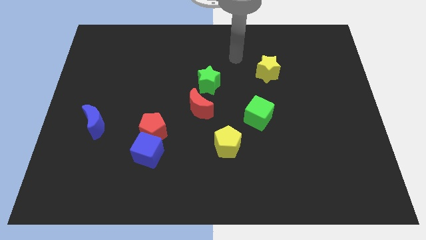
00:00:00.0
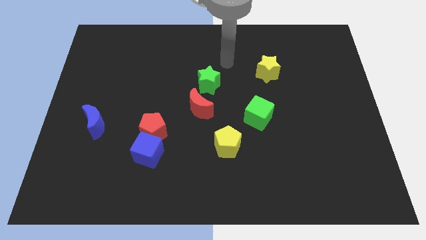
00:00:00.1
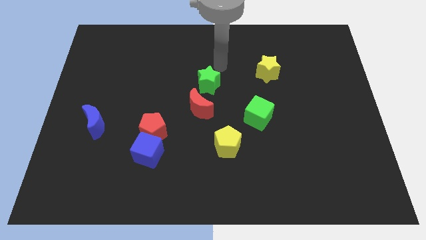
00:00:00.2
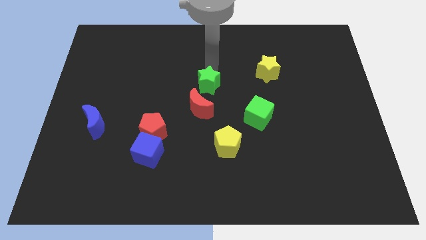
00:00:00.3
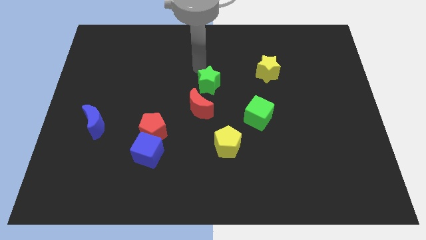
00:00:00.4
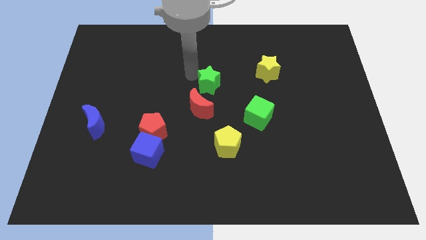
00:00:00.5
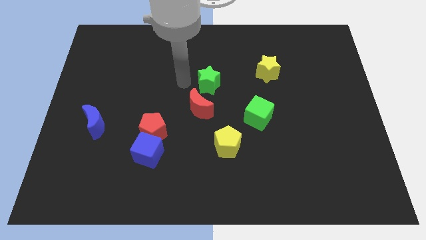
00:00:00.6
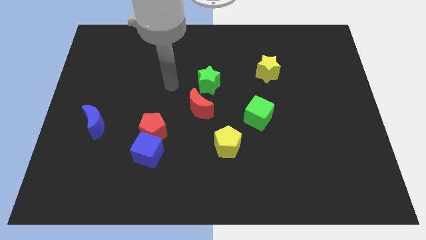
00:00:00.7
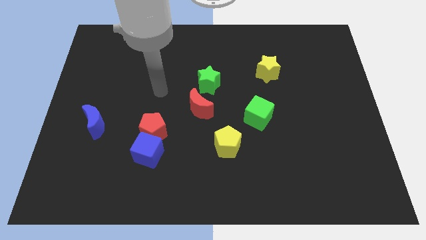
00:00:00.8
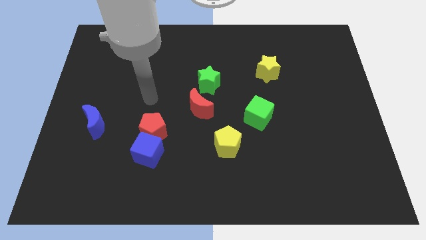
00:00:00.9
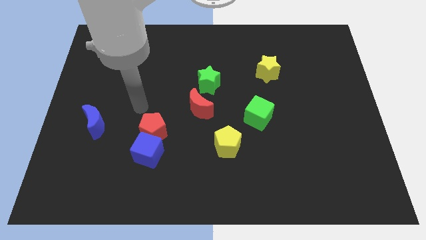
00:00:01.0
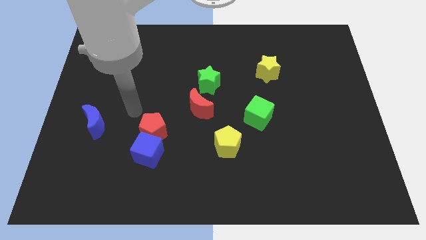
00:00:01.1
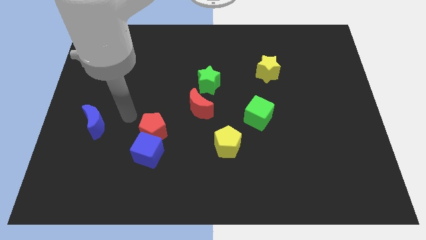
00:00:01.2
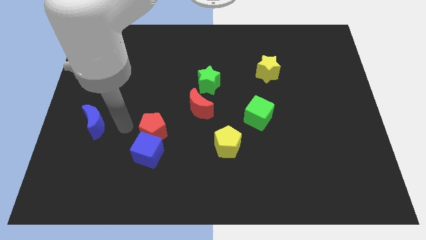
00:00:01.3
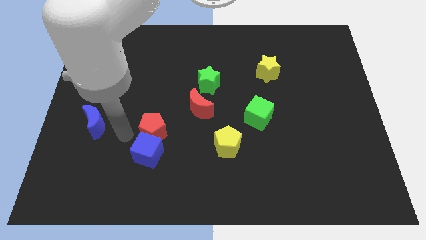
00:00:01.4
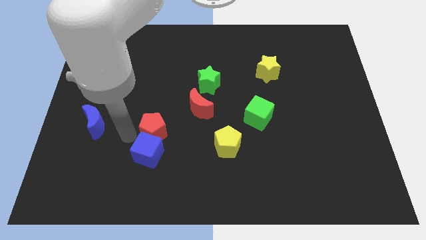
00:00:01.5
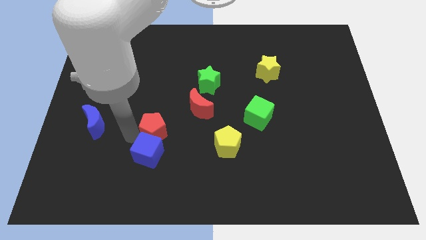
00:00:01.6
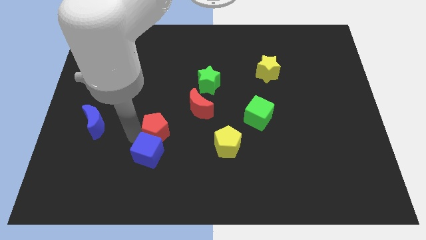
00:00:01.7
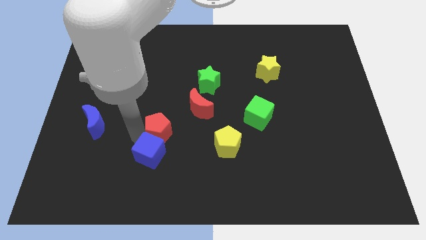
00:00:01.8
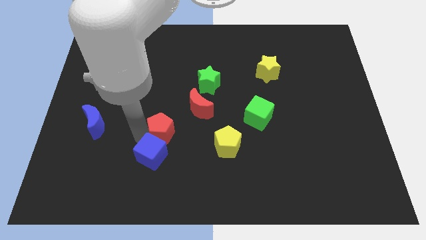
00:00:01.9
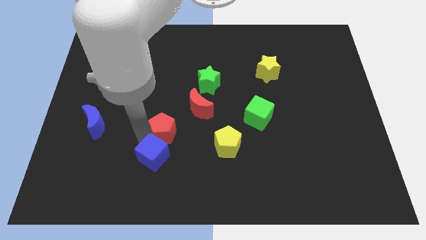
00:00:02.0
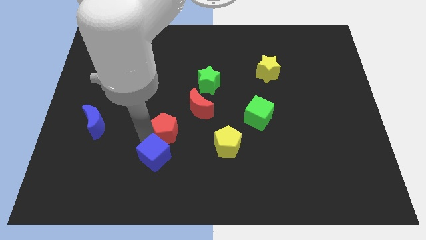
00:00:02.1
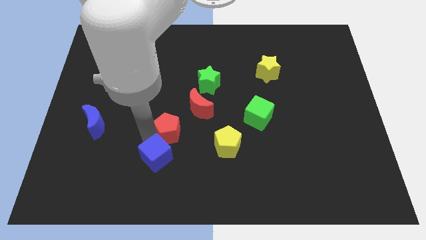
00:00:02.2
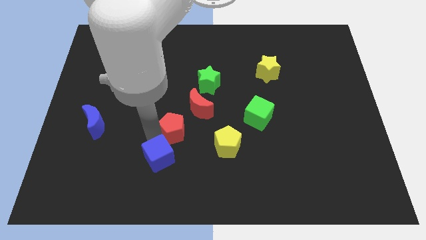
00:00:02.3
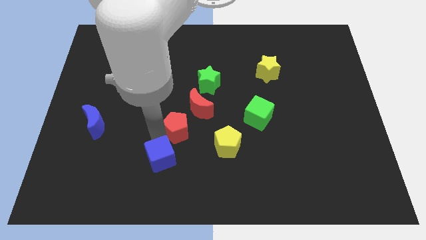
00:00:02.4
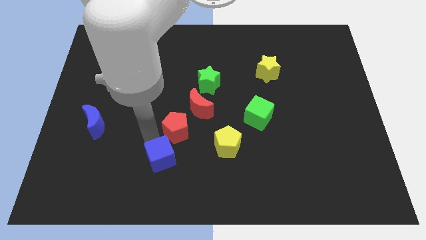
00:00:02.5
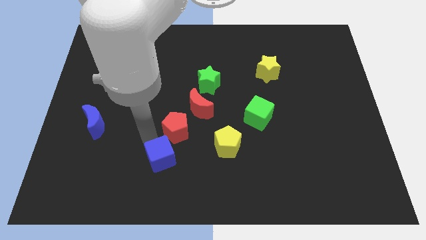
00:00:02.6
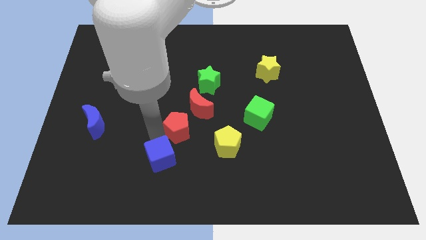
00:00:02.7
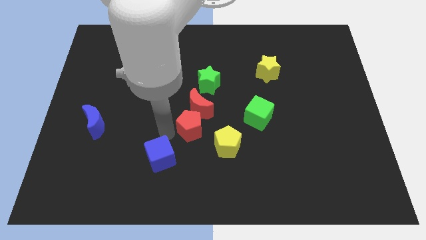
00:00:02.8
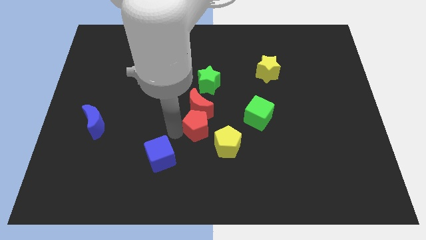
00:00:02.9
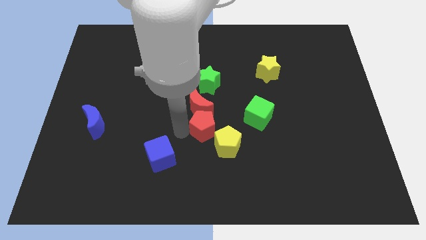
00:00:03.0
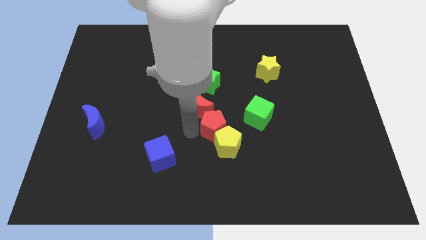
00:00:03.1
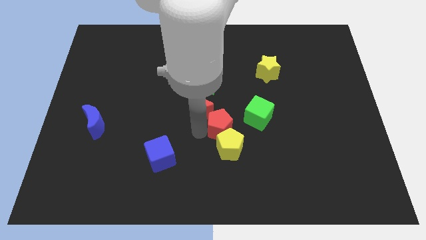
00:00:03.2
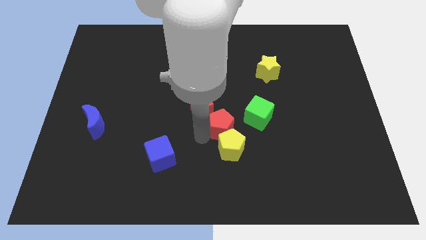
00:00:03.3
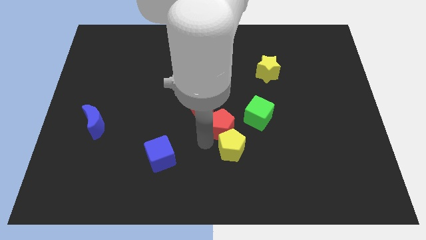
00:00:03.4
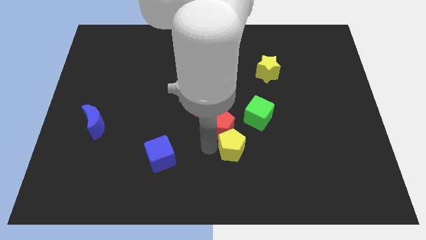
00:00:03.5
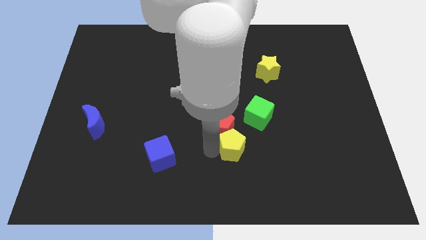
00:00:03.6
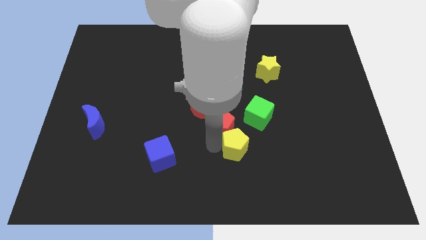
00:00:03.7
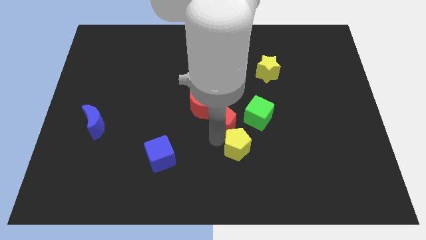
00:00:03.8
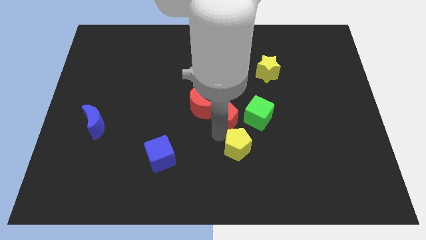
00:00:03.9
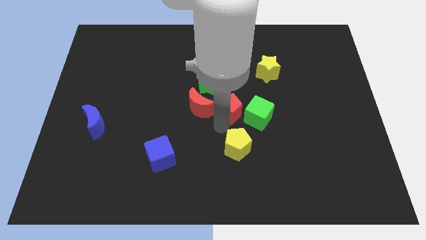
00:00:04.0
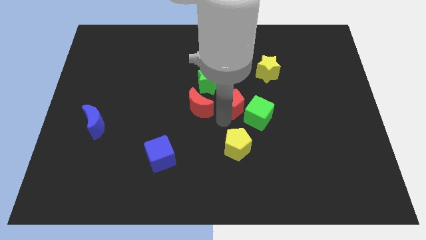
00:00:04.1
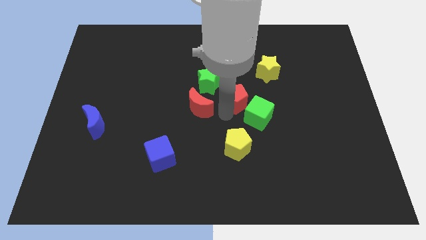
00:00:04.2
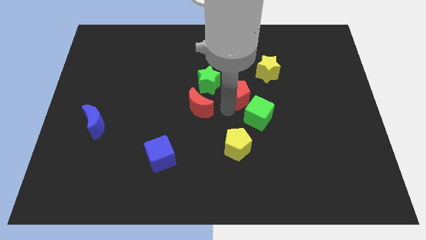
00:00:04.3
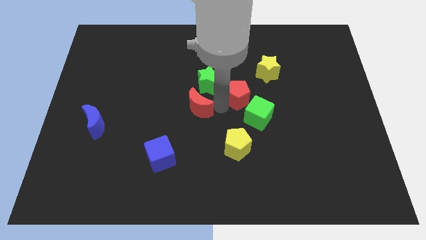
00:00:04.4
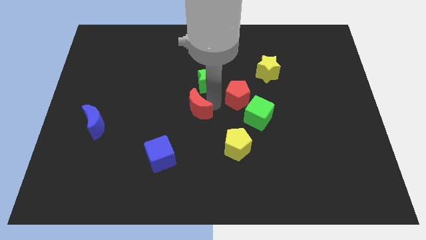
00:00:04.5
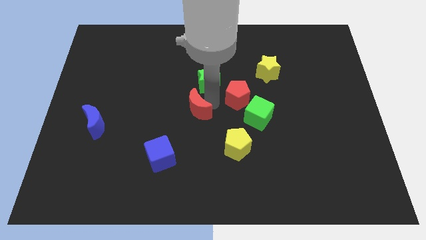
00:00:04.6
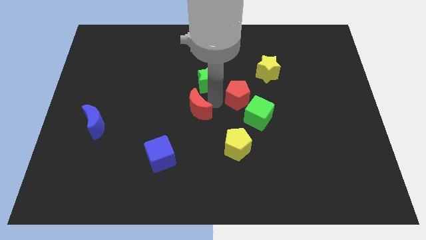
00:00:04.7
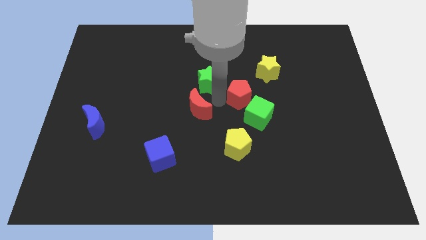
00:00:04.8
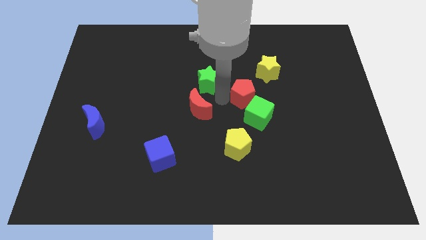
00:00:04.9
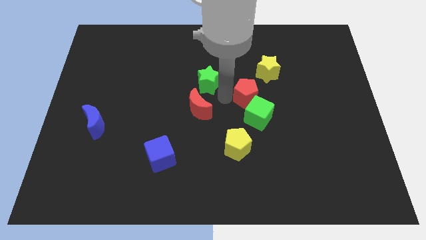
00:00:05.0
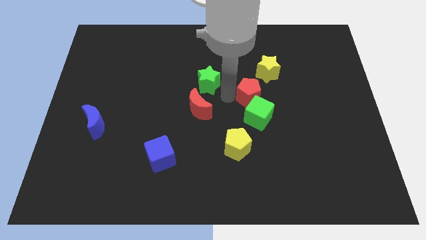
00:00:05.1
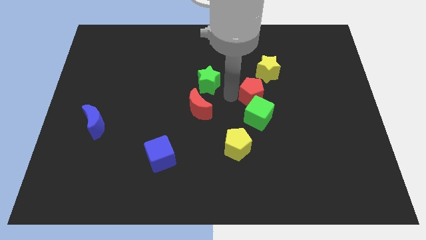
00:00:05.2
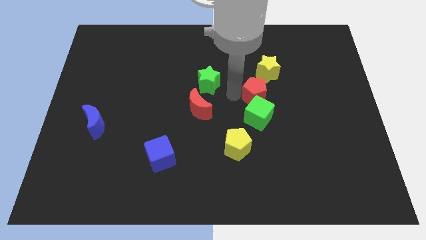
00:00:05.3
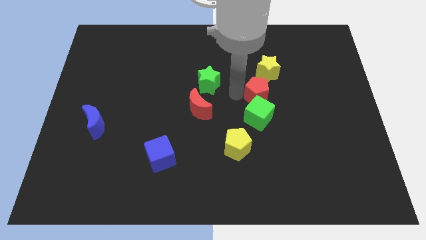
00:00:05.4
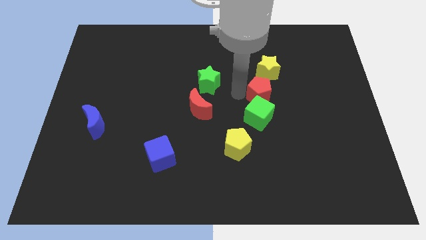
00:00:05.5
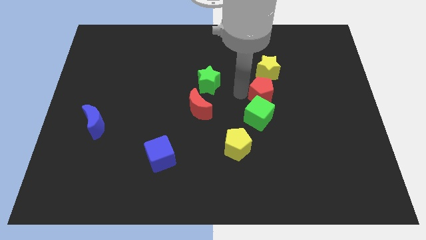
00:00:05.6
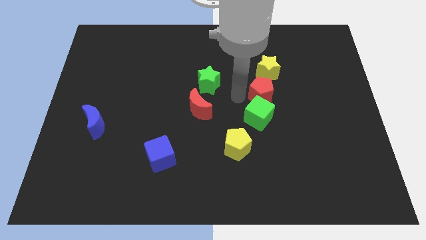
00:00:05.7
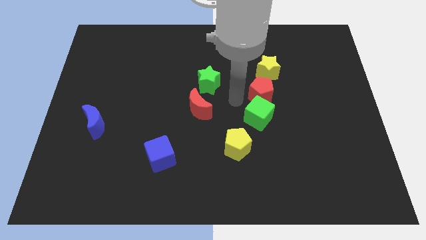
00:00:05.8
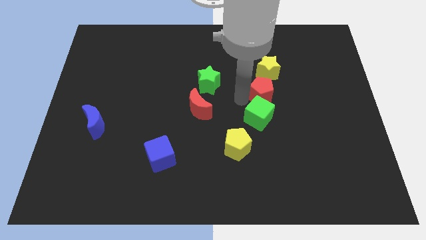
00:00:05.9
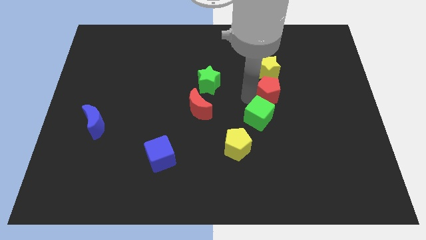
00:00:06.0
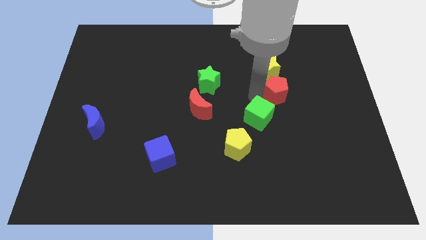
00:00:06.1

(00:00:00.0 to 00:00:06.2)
push the red pentagon to the bottom right of the yellow star

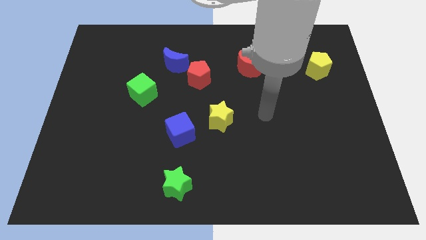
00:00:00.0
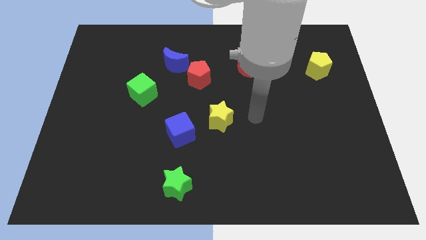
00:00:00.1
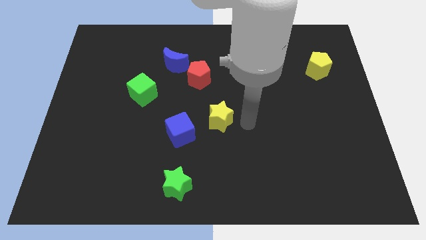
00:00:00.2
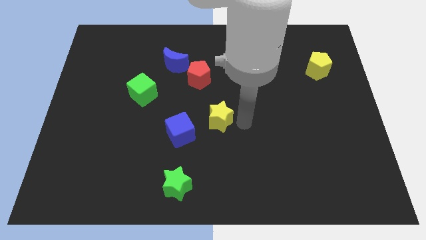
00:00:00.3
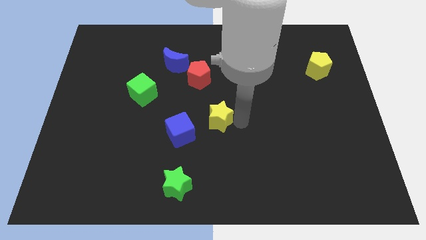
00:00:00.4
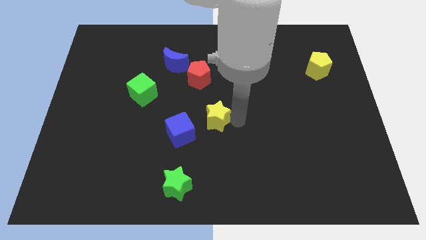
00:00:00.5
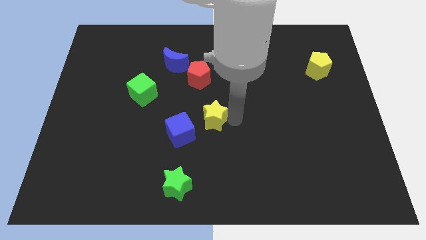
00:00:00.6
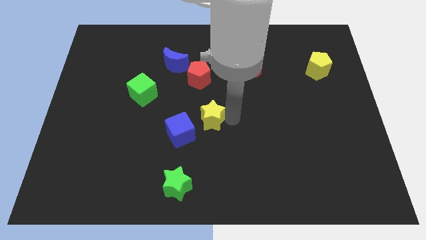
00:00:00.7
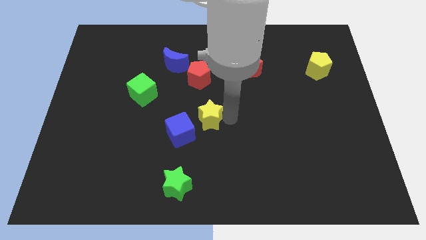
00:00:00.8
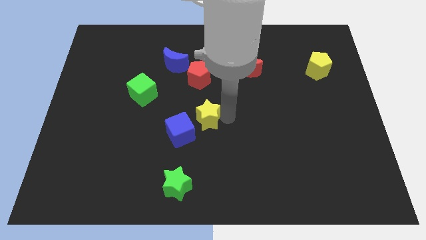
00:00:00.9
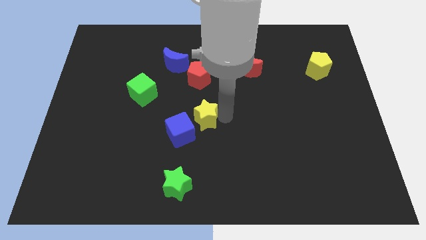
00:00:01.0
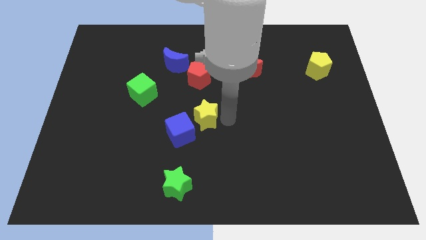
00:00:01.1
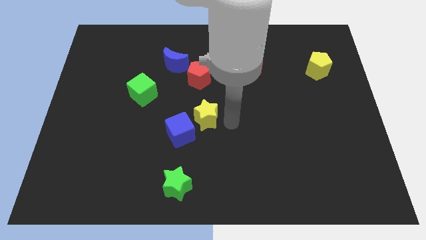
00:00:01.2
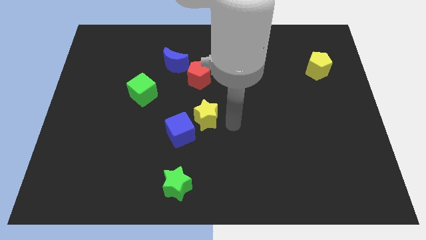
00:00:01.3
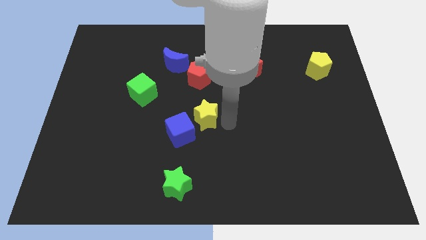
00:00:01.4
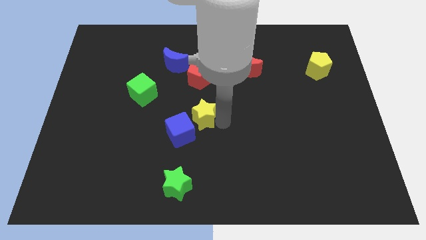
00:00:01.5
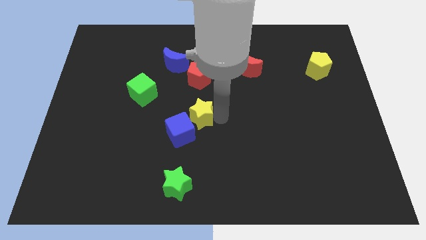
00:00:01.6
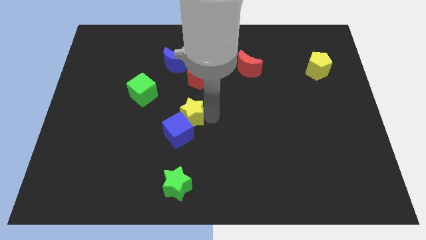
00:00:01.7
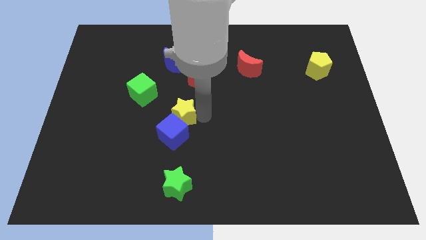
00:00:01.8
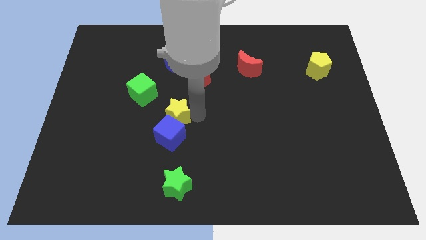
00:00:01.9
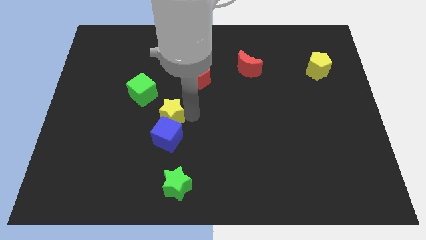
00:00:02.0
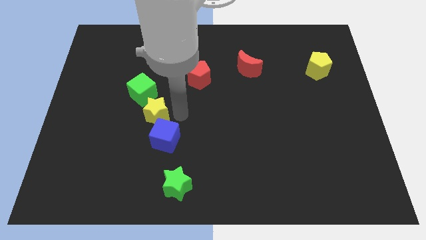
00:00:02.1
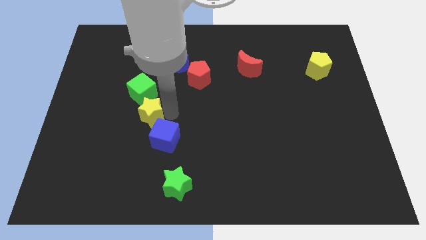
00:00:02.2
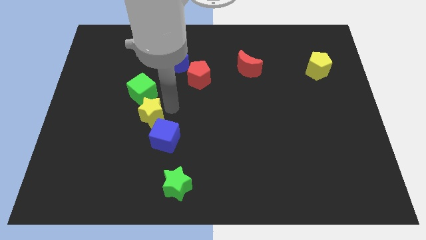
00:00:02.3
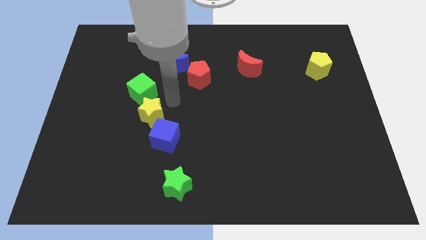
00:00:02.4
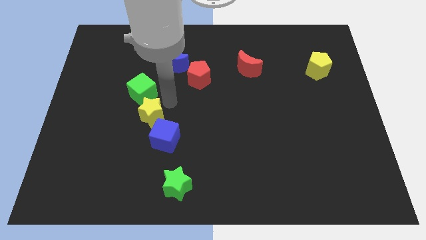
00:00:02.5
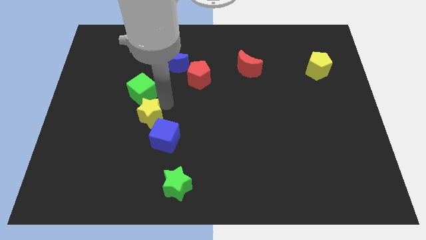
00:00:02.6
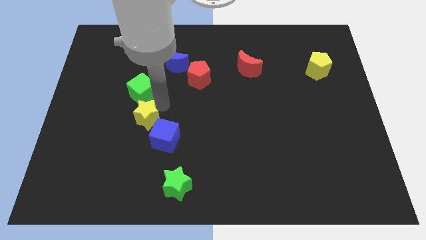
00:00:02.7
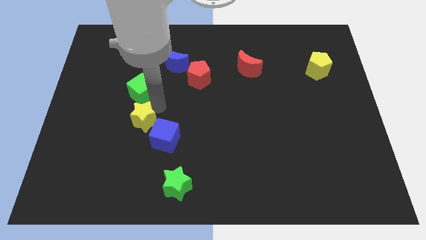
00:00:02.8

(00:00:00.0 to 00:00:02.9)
move the yellow star to the left side of the blue cube
